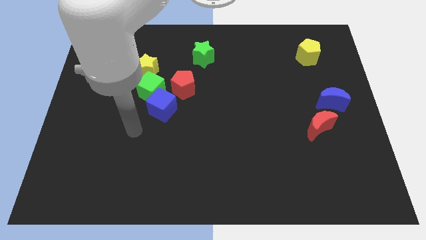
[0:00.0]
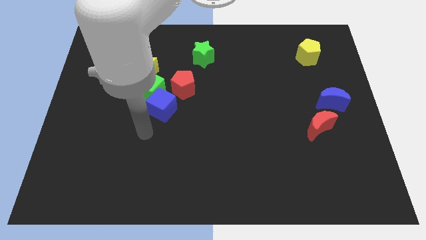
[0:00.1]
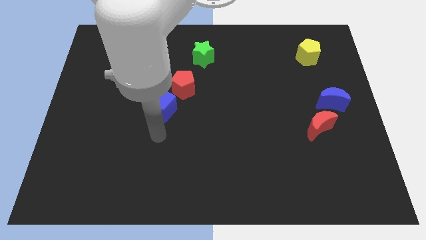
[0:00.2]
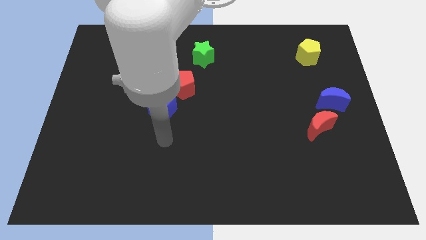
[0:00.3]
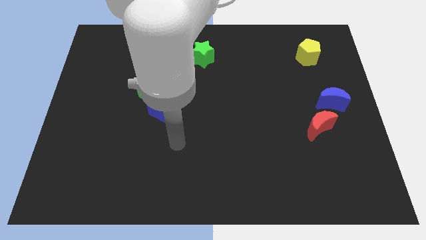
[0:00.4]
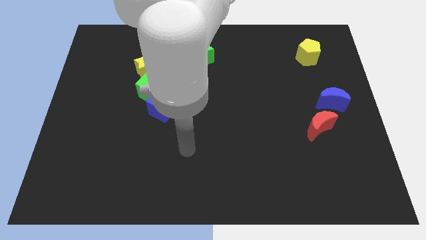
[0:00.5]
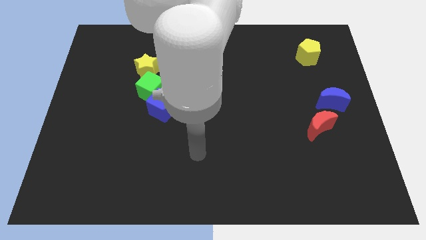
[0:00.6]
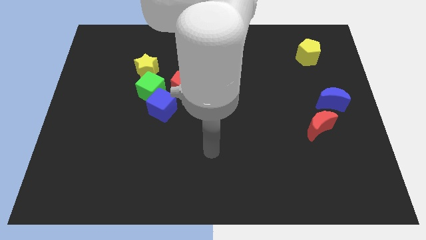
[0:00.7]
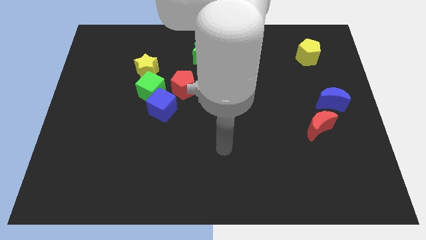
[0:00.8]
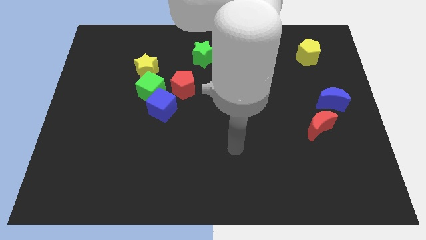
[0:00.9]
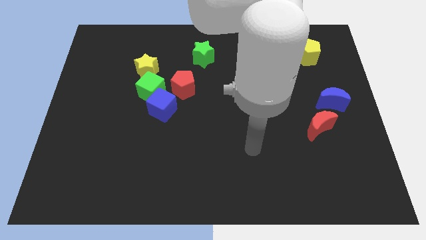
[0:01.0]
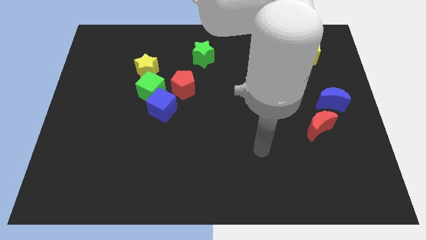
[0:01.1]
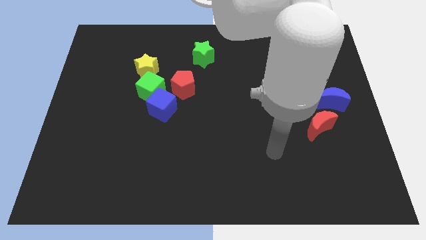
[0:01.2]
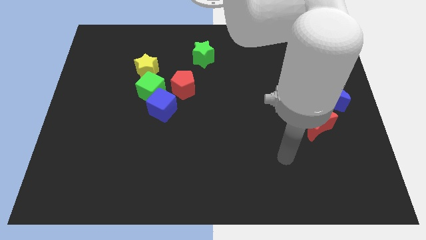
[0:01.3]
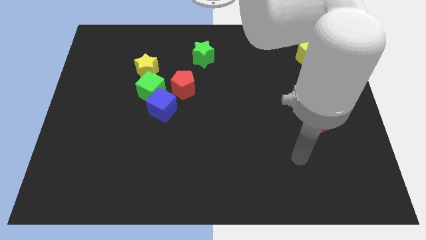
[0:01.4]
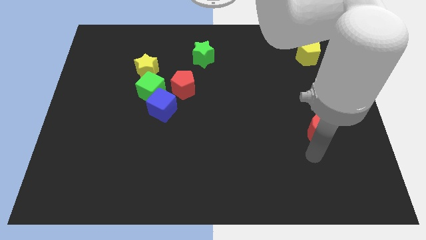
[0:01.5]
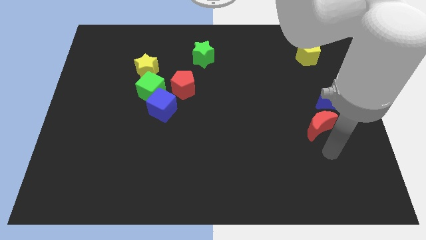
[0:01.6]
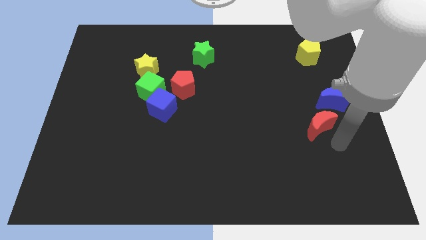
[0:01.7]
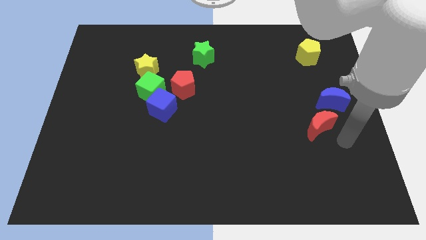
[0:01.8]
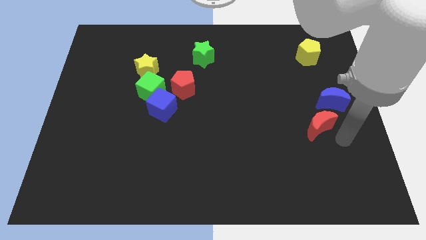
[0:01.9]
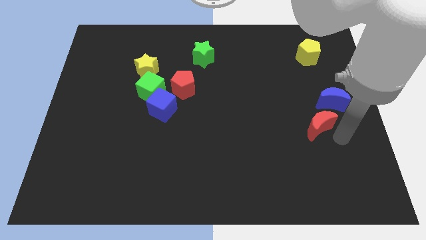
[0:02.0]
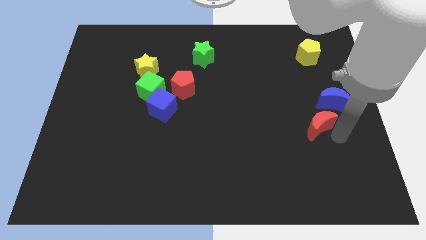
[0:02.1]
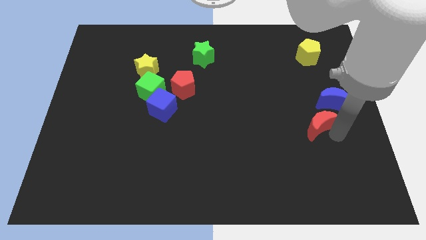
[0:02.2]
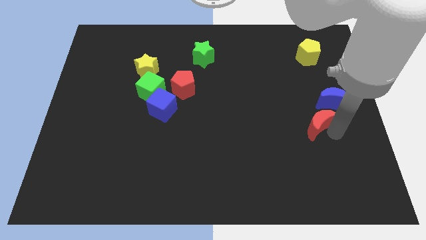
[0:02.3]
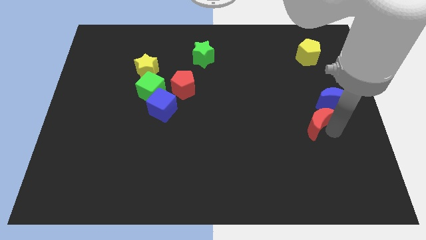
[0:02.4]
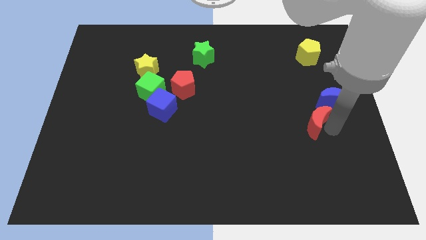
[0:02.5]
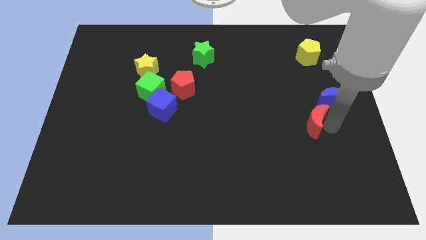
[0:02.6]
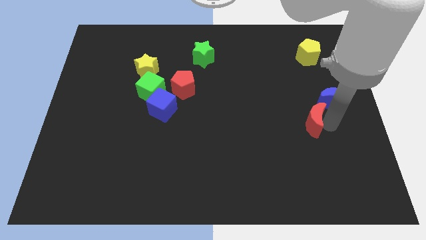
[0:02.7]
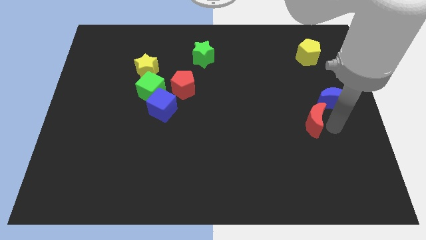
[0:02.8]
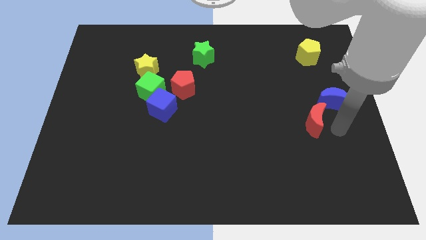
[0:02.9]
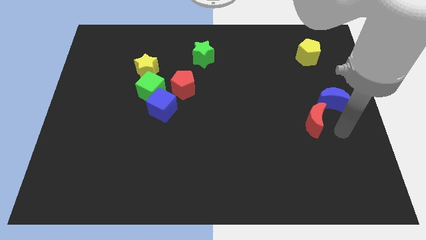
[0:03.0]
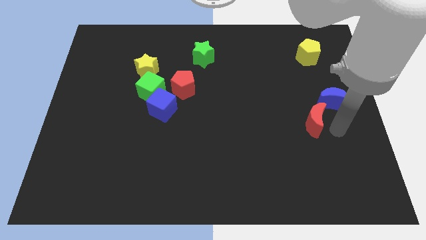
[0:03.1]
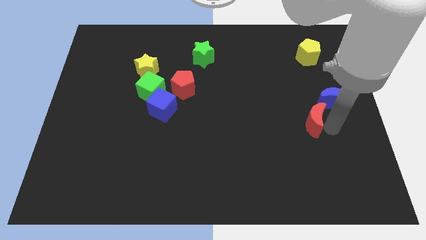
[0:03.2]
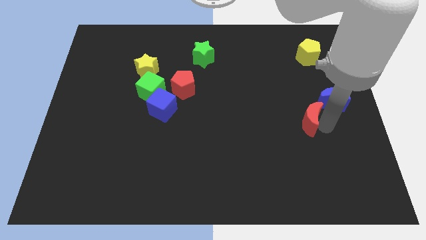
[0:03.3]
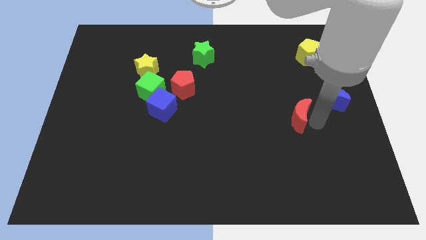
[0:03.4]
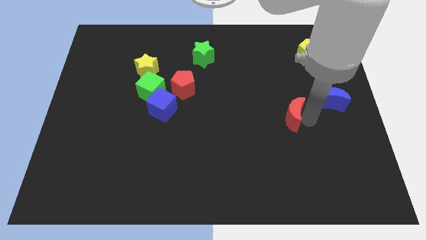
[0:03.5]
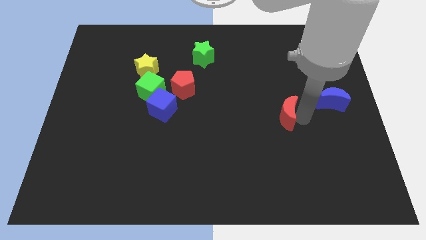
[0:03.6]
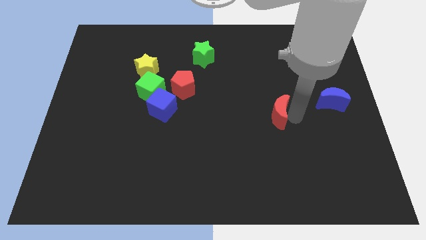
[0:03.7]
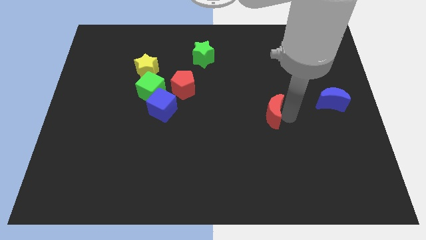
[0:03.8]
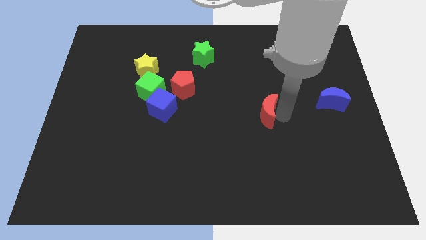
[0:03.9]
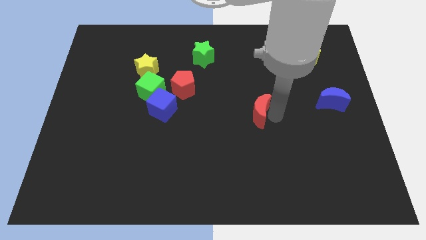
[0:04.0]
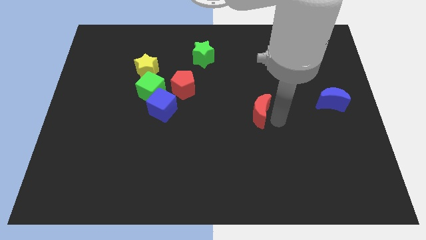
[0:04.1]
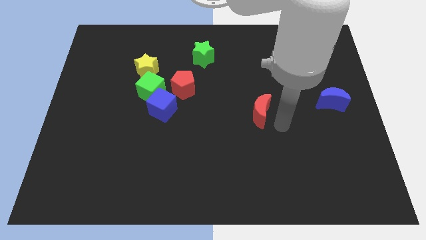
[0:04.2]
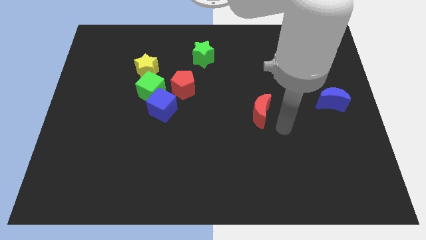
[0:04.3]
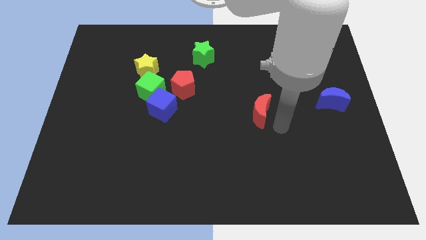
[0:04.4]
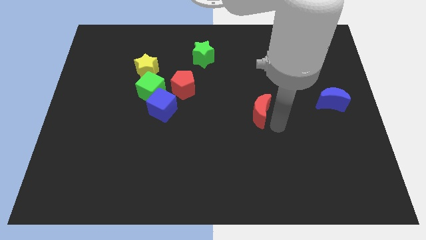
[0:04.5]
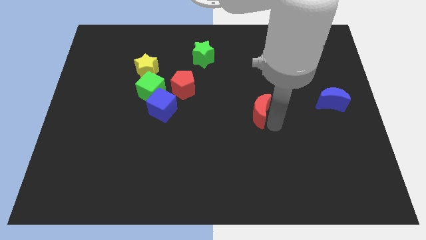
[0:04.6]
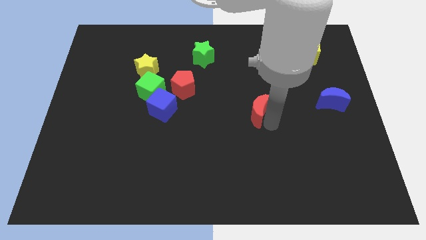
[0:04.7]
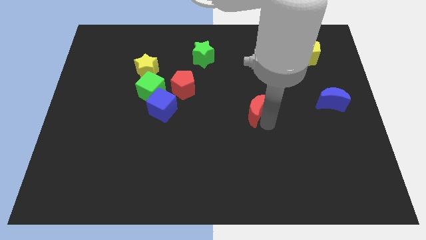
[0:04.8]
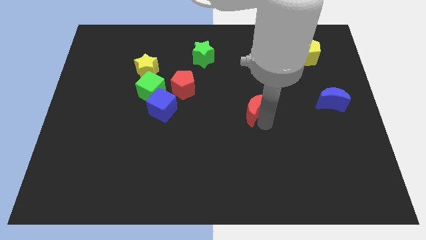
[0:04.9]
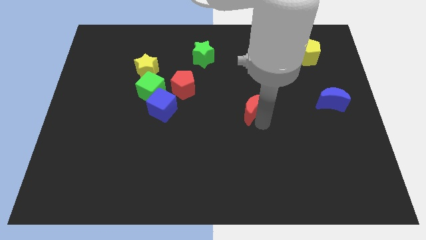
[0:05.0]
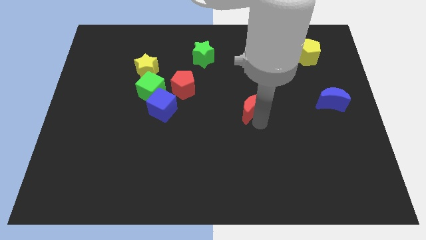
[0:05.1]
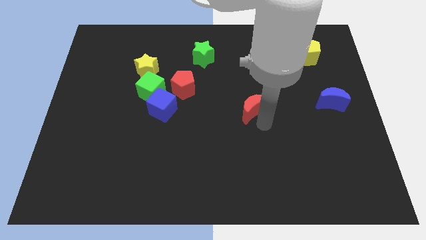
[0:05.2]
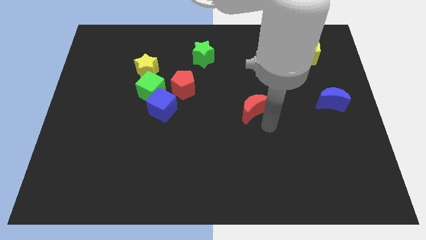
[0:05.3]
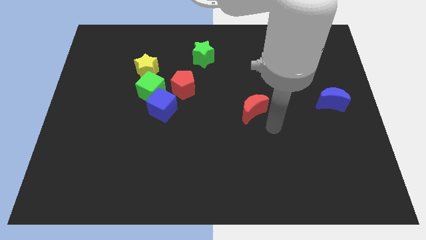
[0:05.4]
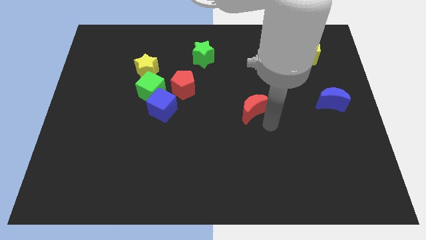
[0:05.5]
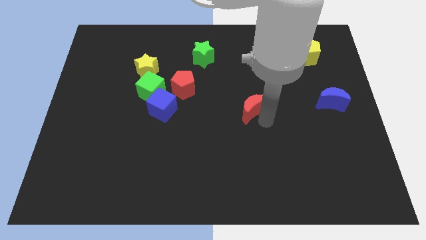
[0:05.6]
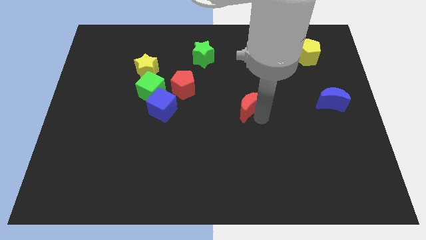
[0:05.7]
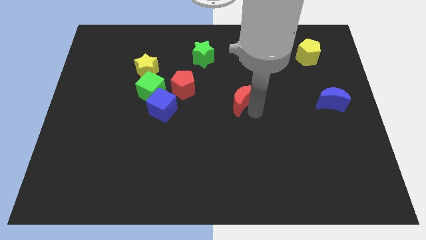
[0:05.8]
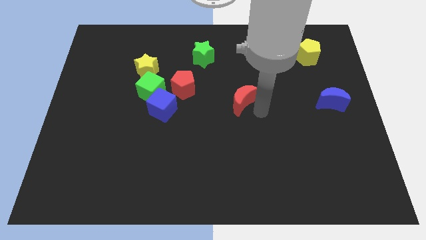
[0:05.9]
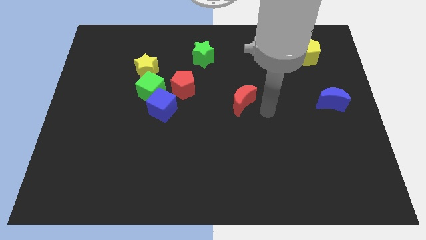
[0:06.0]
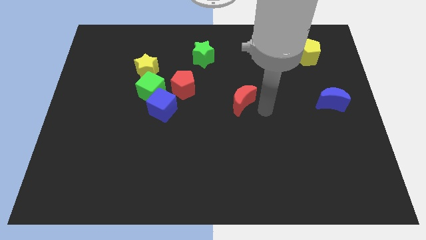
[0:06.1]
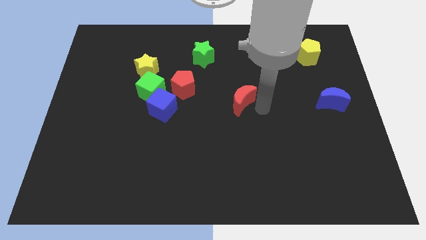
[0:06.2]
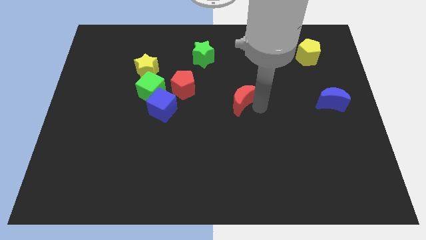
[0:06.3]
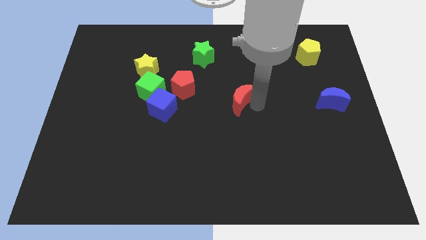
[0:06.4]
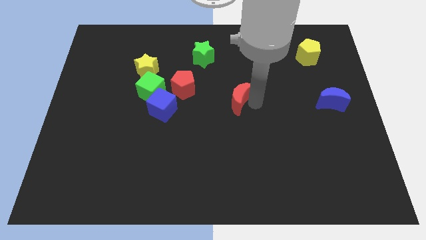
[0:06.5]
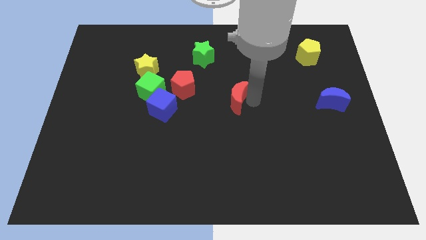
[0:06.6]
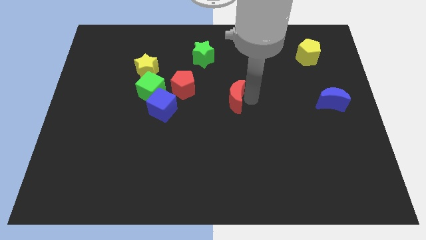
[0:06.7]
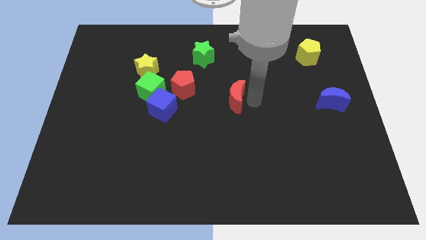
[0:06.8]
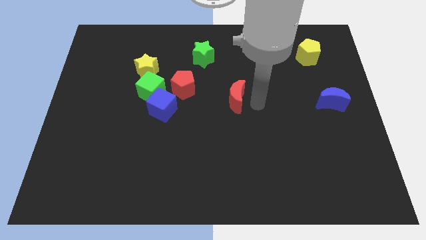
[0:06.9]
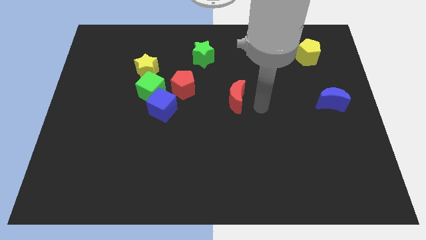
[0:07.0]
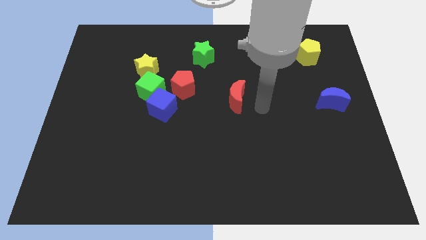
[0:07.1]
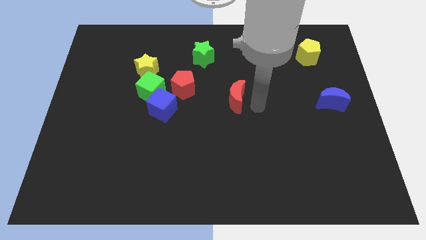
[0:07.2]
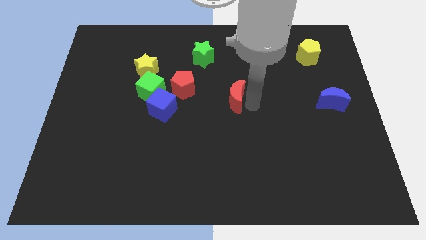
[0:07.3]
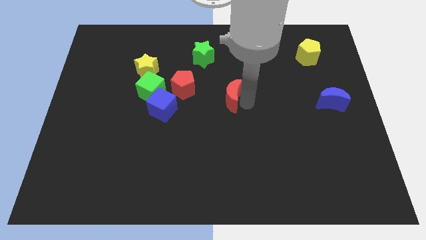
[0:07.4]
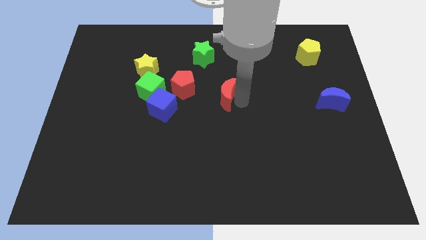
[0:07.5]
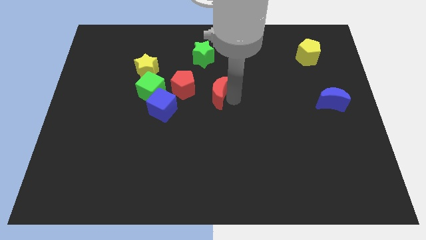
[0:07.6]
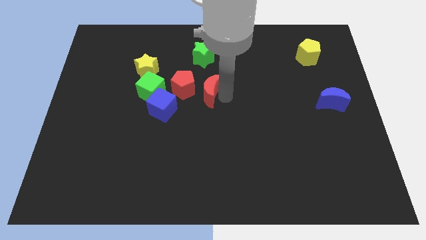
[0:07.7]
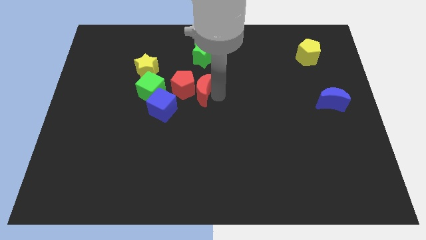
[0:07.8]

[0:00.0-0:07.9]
put the red moon towards the red pentagon
